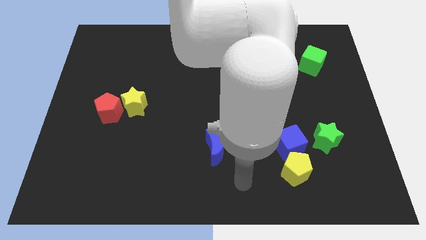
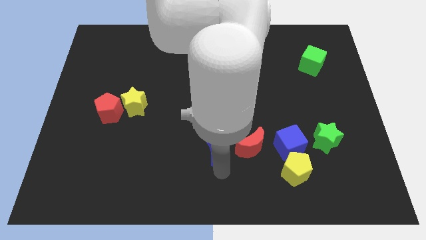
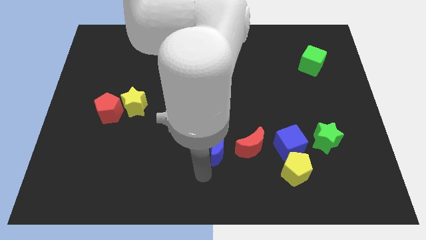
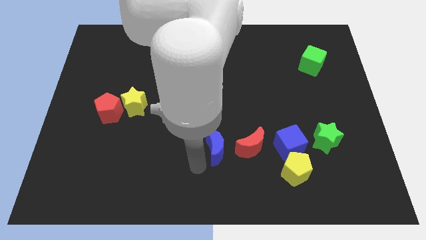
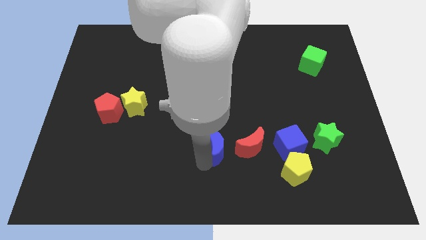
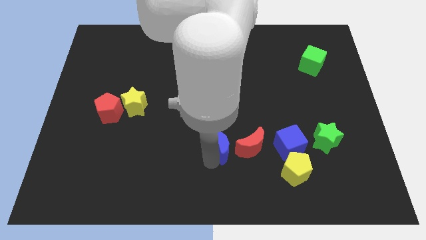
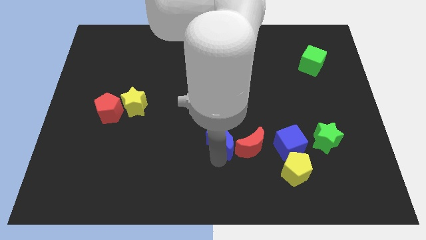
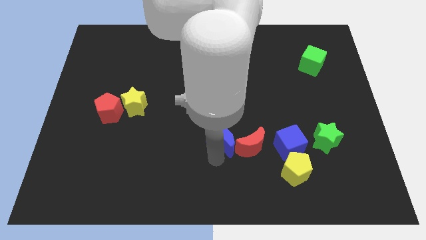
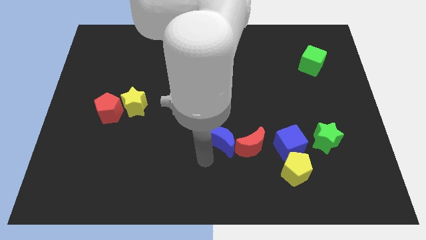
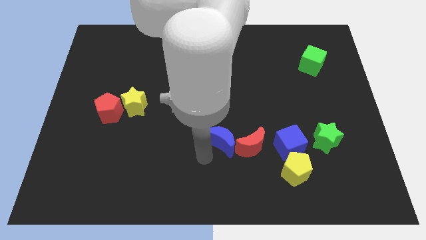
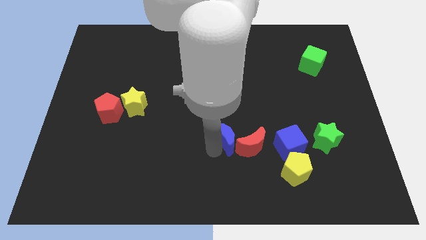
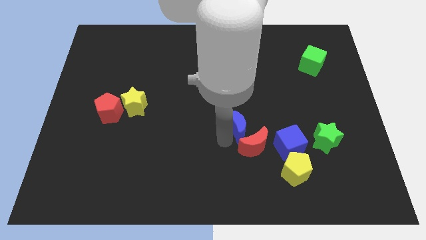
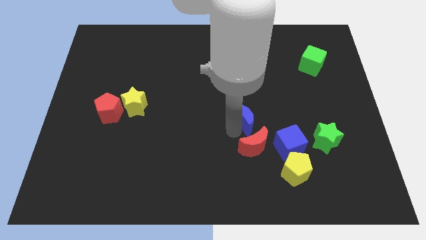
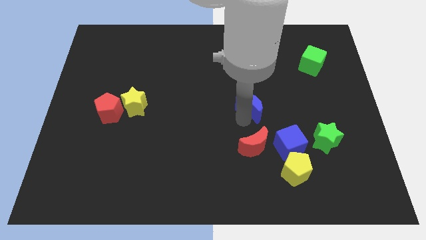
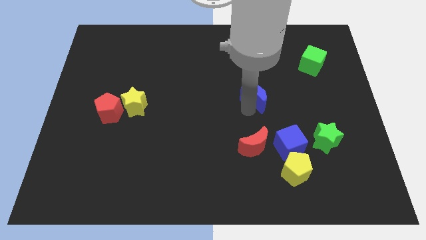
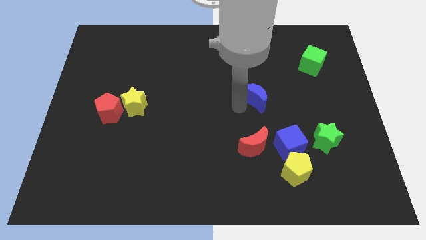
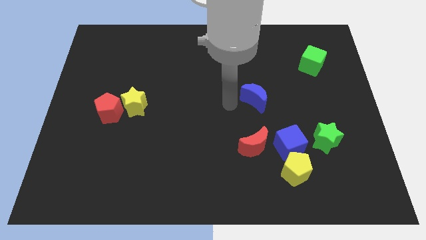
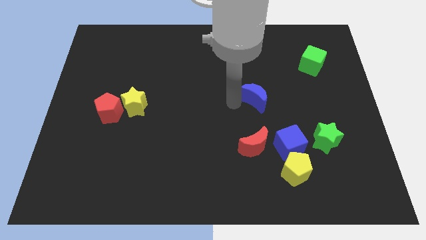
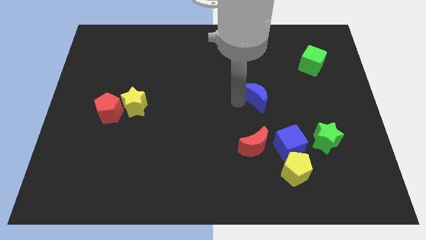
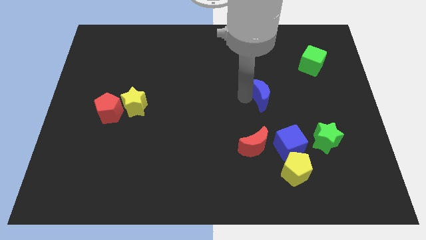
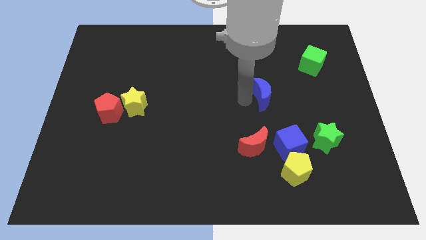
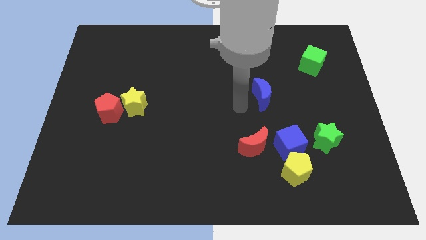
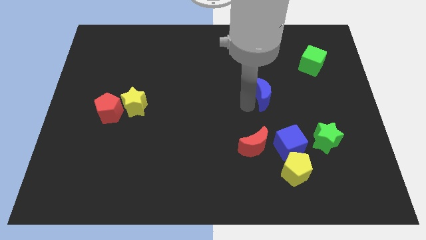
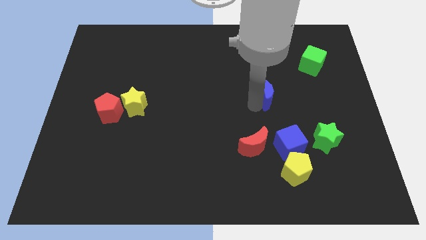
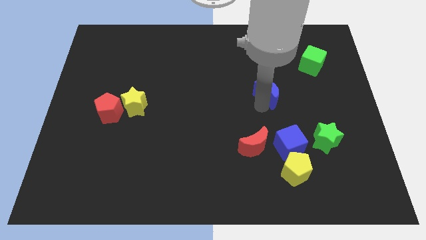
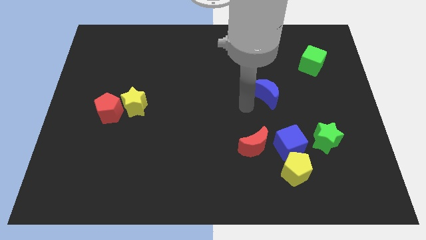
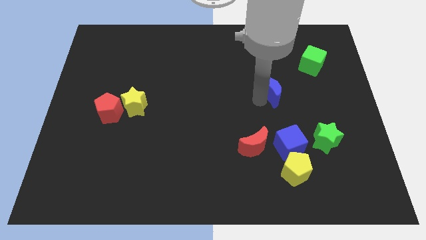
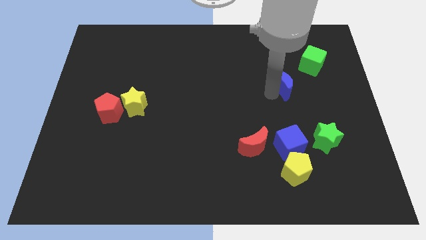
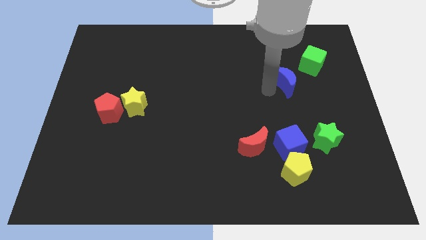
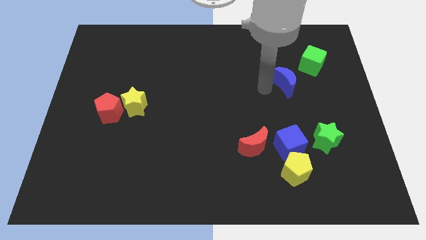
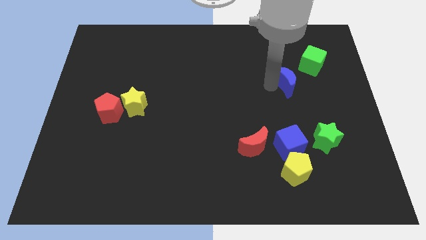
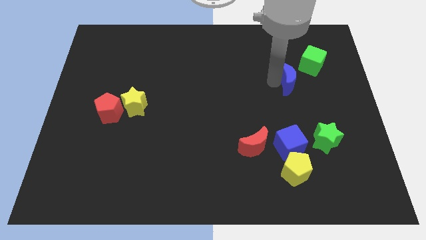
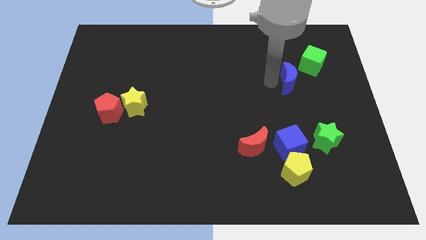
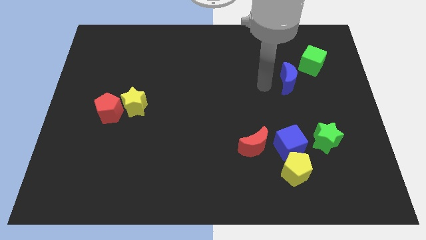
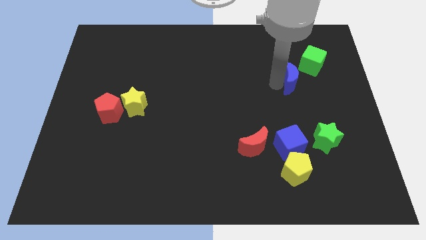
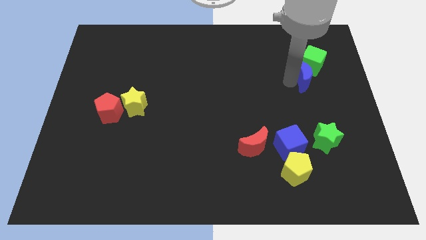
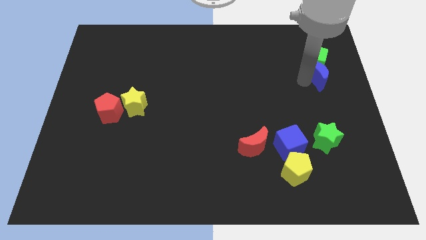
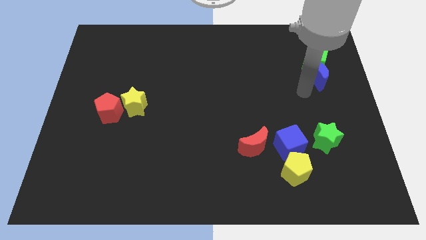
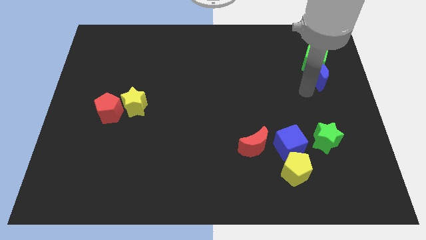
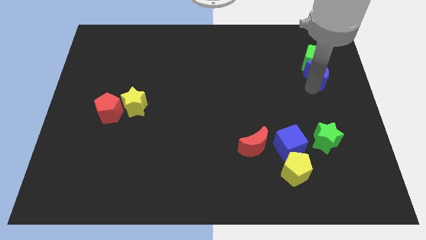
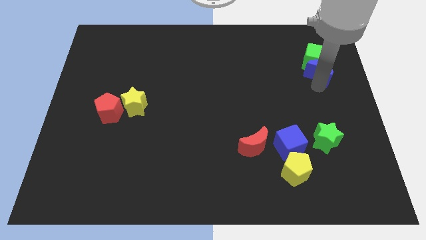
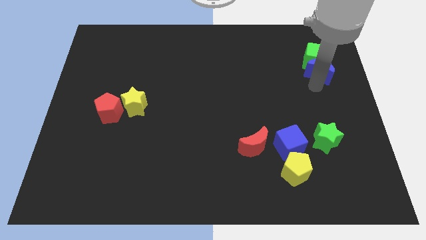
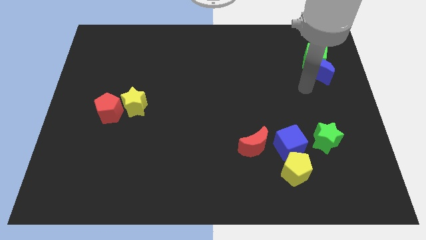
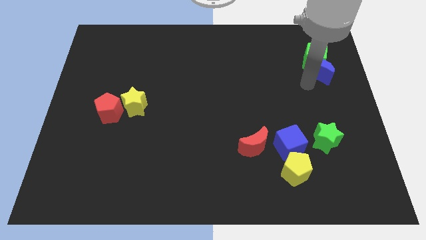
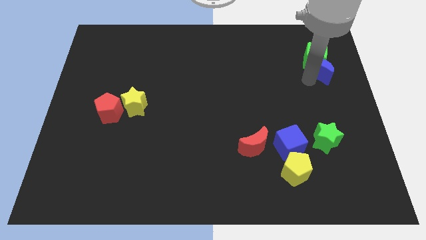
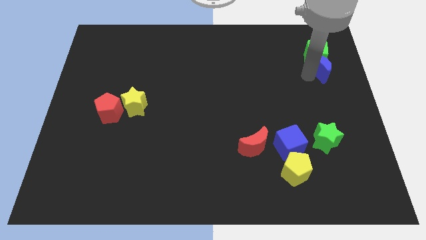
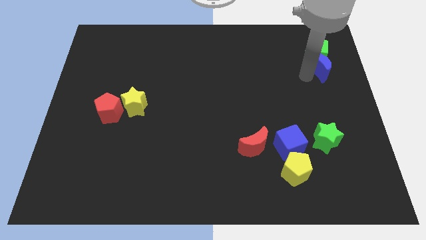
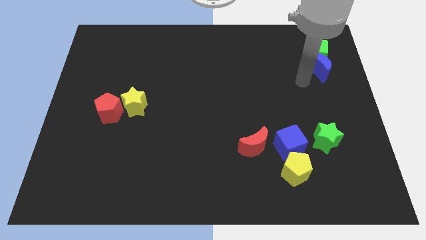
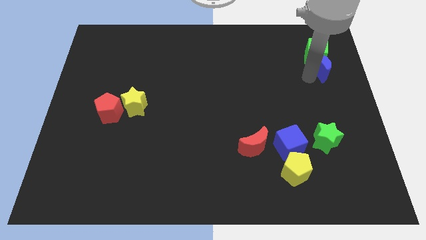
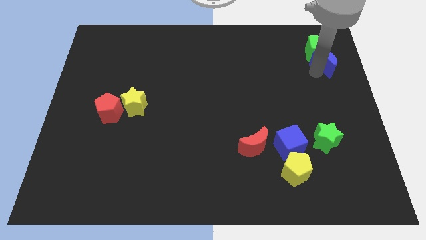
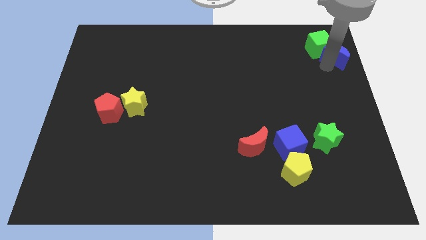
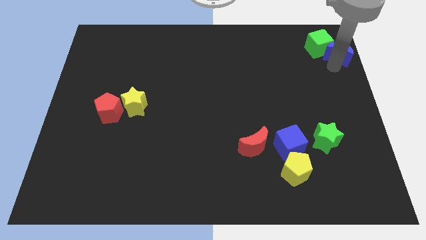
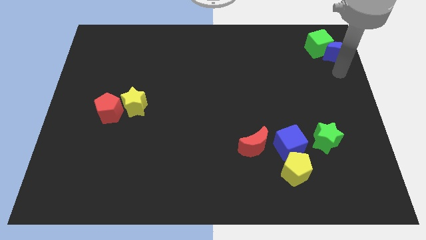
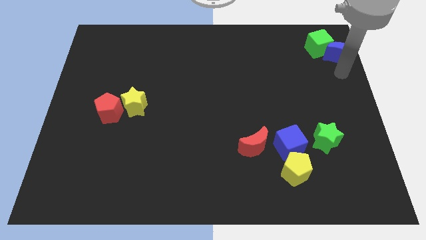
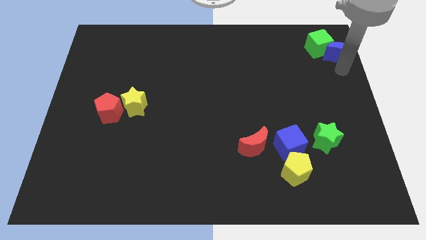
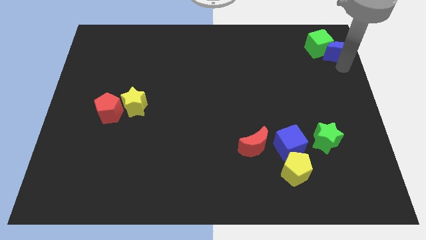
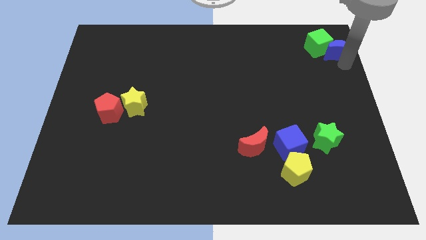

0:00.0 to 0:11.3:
put the blue moon to the top right corner
